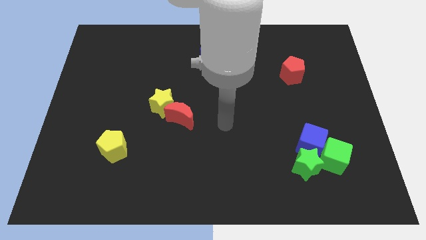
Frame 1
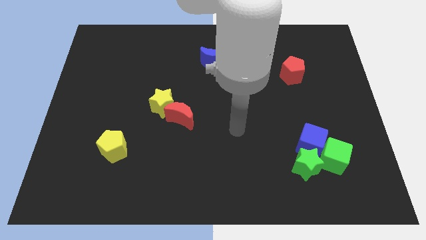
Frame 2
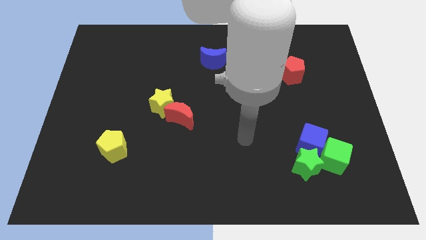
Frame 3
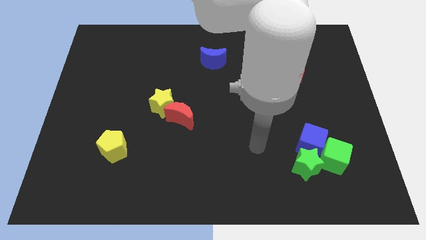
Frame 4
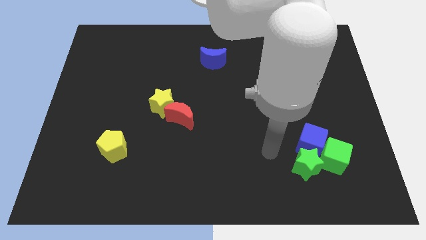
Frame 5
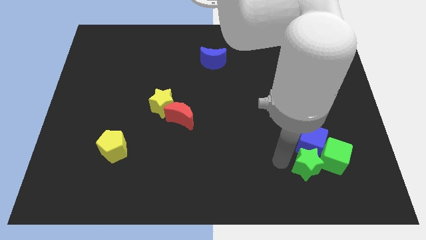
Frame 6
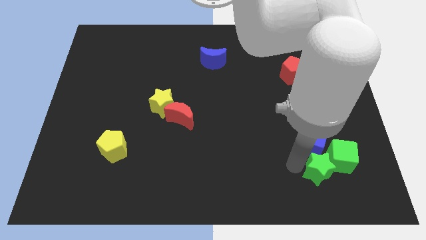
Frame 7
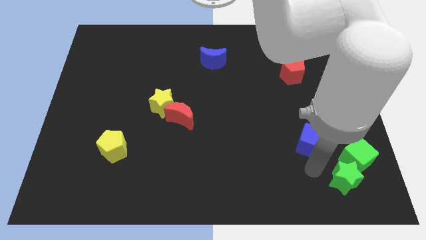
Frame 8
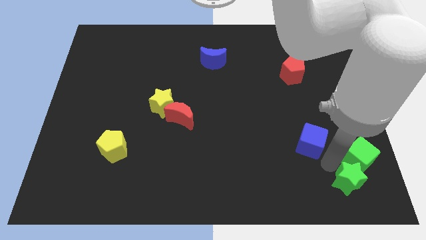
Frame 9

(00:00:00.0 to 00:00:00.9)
pull the blue cube apart from the green star and green cube

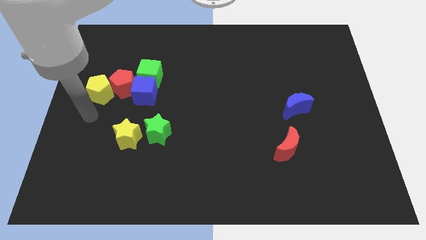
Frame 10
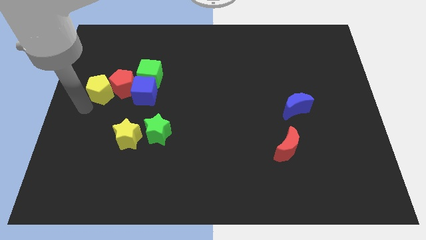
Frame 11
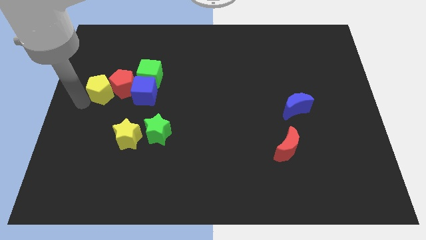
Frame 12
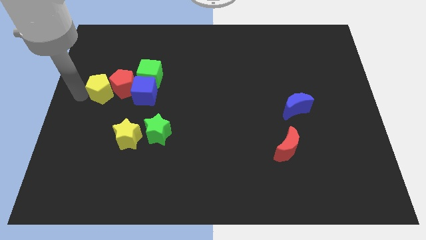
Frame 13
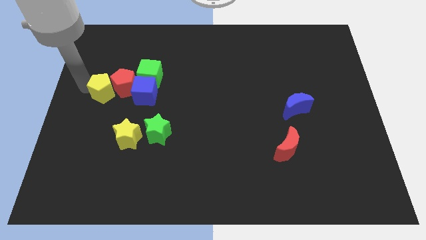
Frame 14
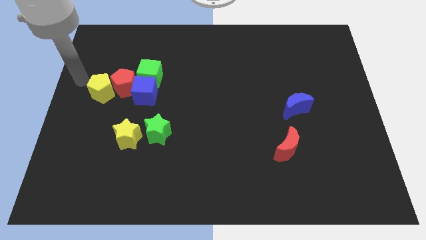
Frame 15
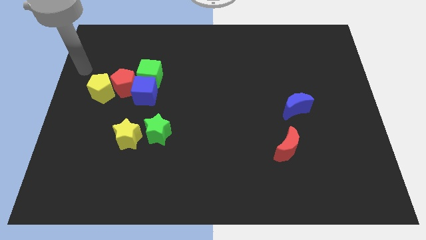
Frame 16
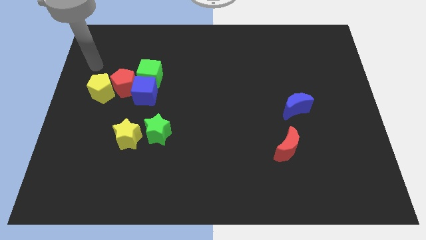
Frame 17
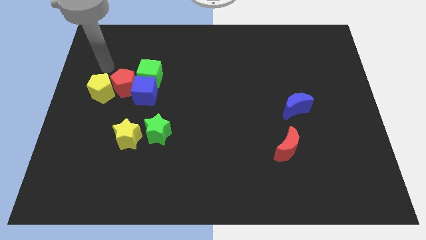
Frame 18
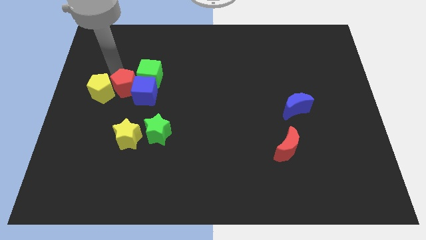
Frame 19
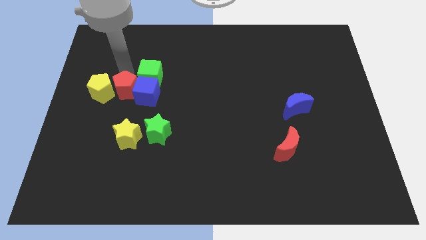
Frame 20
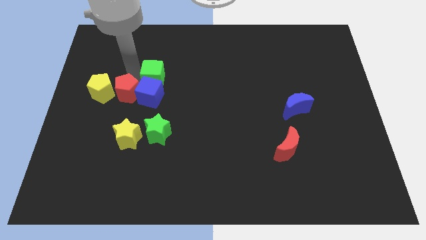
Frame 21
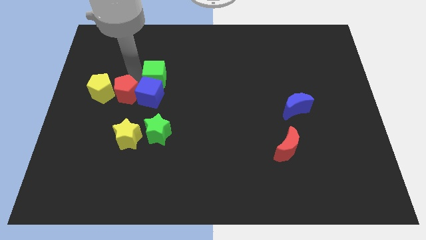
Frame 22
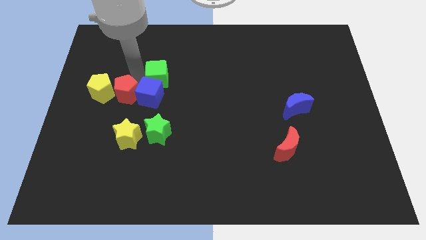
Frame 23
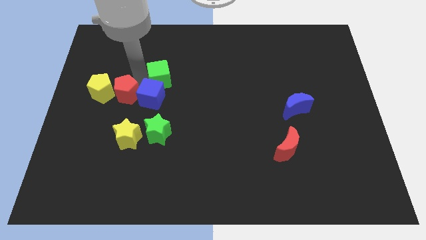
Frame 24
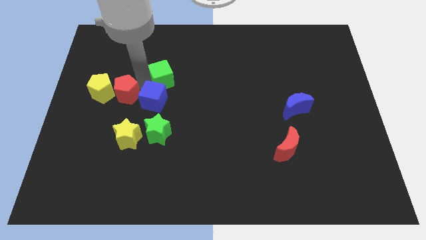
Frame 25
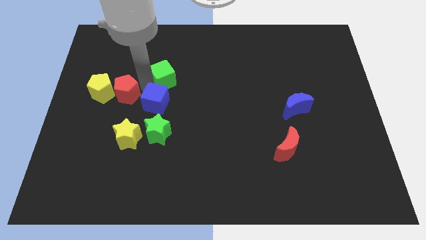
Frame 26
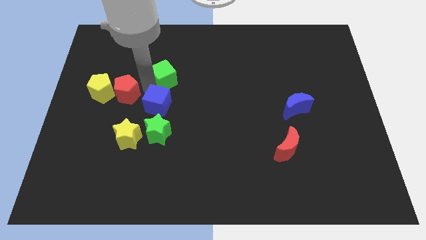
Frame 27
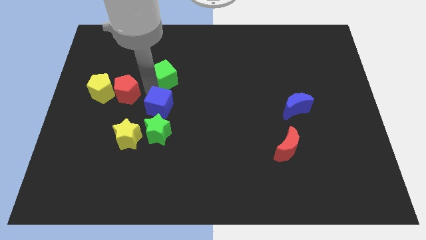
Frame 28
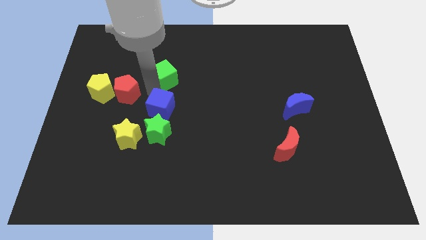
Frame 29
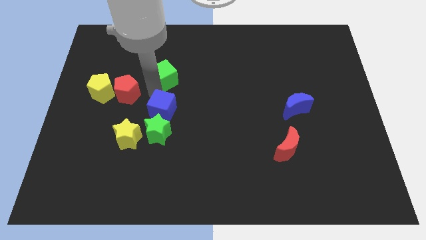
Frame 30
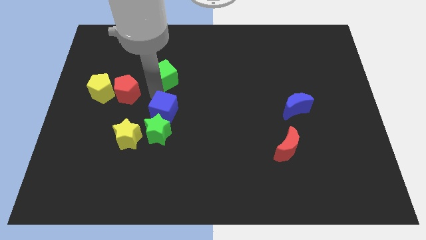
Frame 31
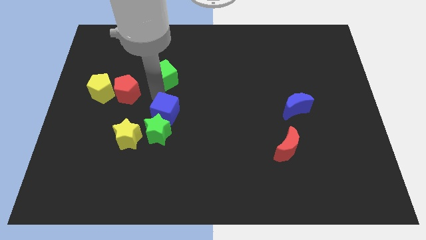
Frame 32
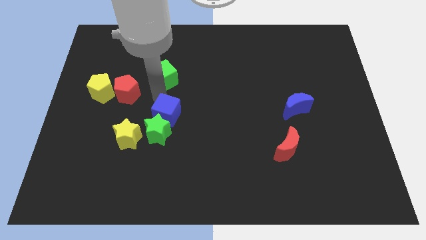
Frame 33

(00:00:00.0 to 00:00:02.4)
move the blue cube away from the green cube and red pentagon

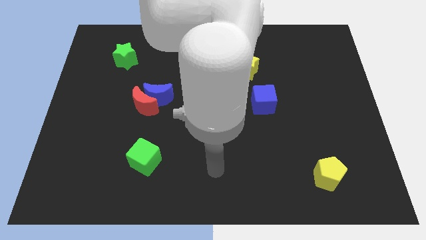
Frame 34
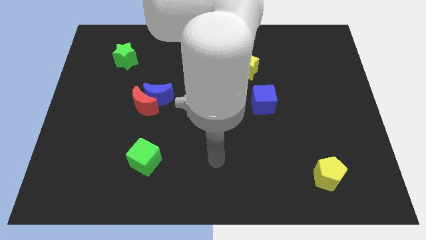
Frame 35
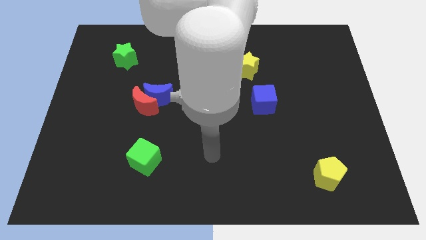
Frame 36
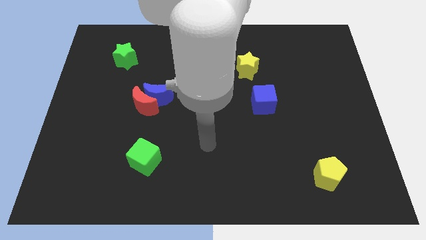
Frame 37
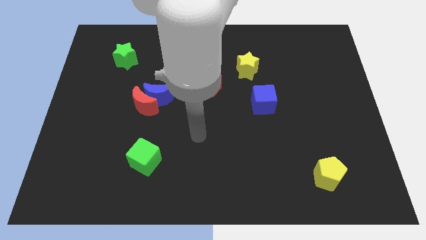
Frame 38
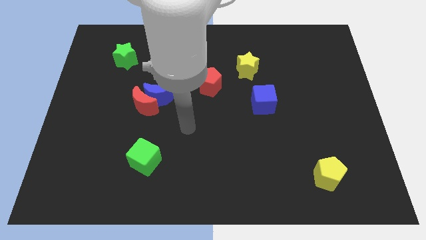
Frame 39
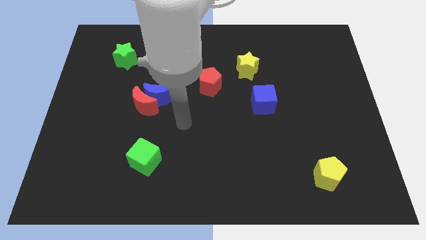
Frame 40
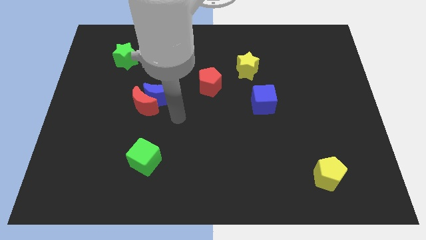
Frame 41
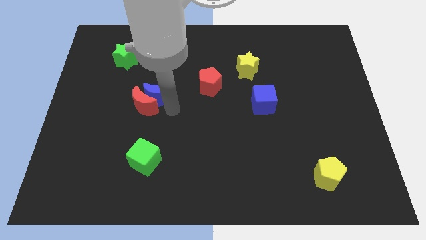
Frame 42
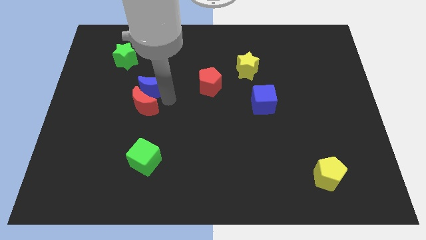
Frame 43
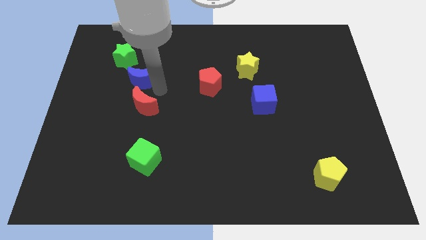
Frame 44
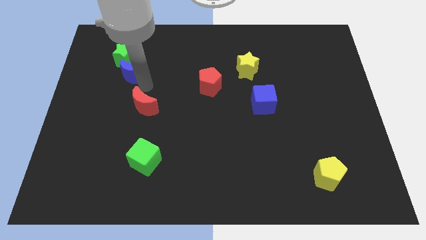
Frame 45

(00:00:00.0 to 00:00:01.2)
pull the red moon apart from the blue moon

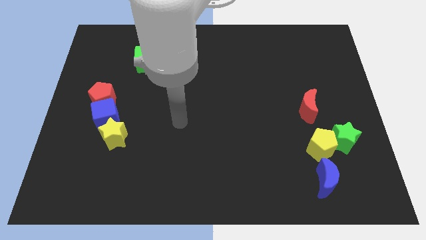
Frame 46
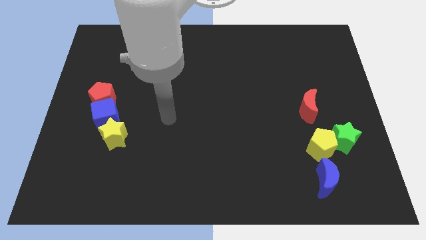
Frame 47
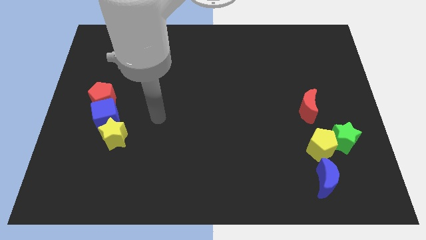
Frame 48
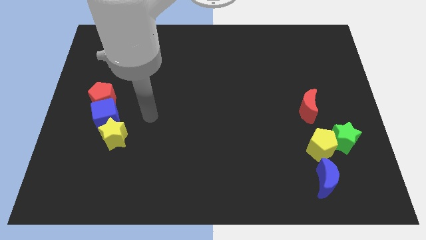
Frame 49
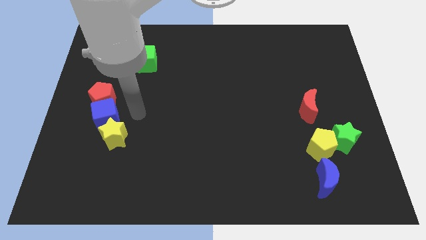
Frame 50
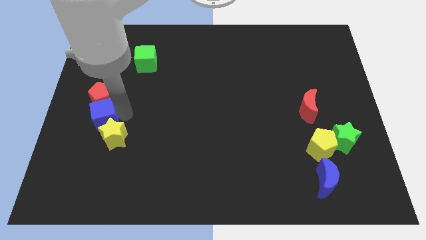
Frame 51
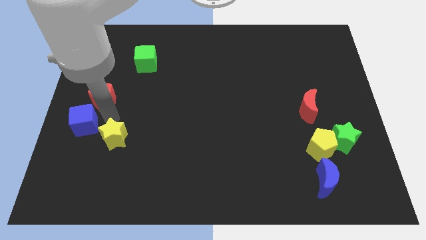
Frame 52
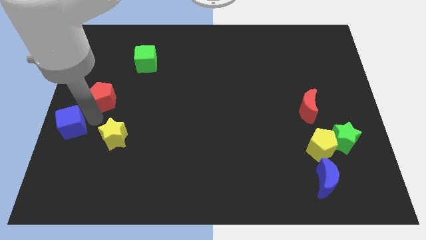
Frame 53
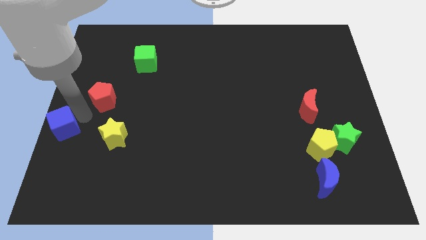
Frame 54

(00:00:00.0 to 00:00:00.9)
pull the red pentagon apart from the blue cube

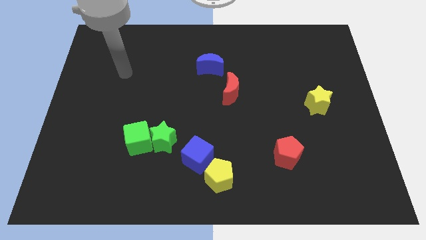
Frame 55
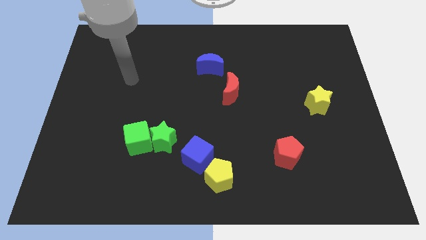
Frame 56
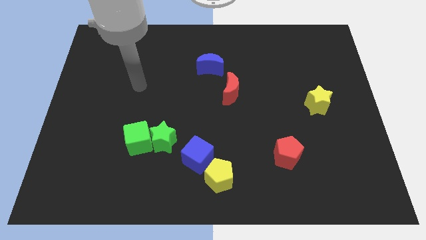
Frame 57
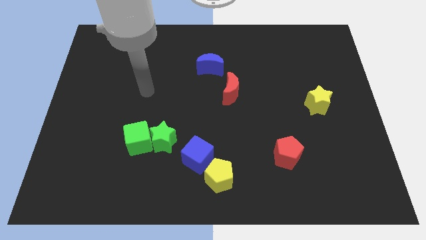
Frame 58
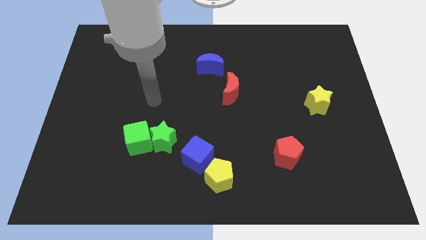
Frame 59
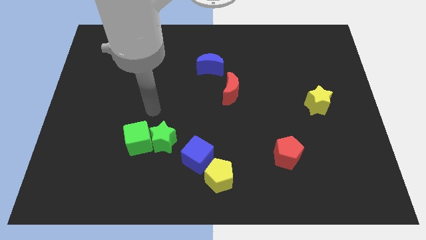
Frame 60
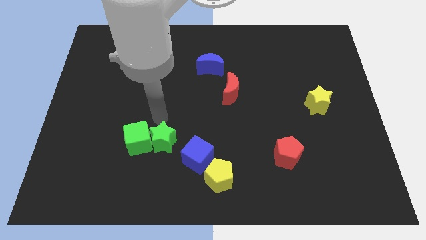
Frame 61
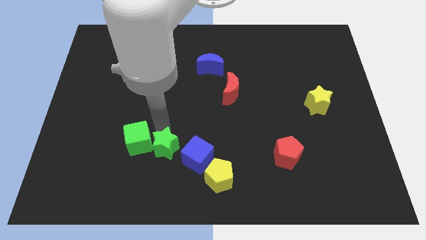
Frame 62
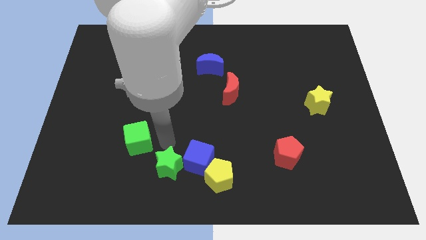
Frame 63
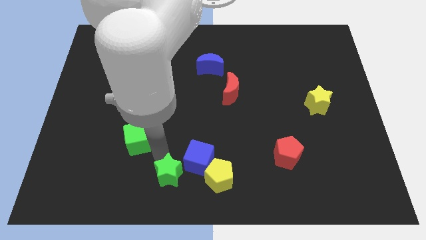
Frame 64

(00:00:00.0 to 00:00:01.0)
move the green cube away from the green star

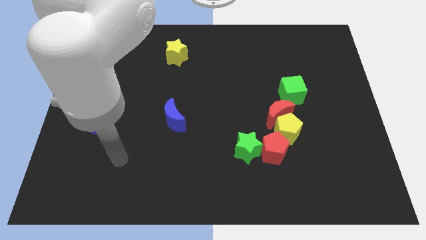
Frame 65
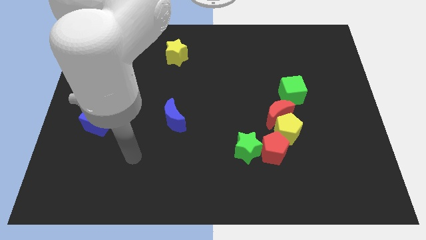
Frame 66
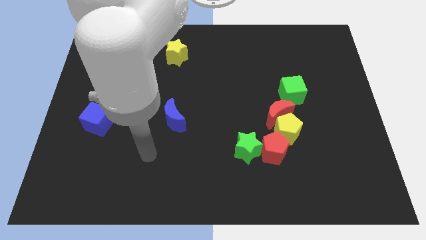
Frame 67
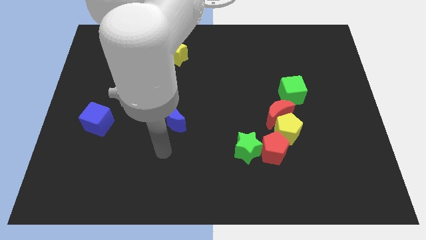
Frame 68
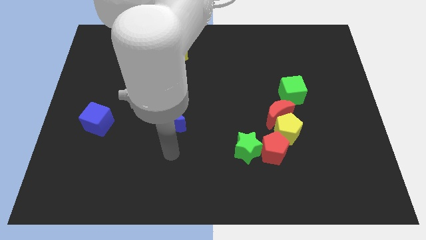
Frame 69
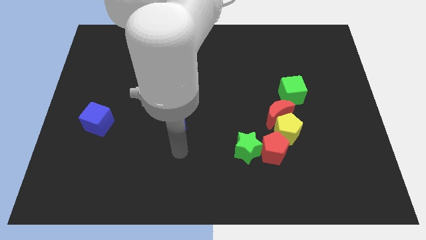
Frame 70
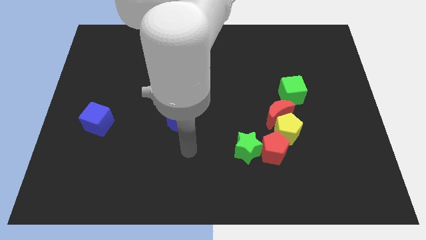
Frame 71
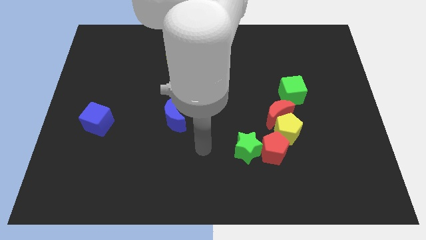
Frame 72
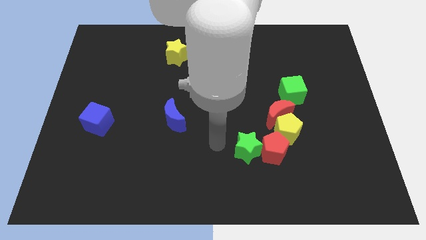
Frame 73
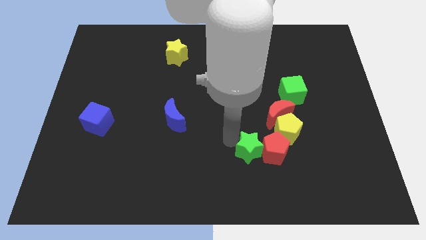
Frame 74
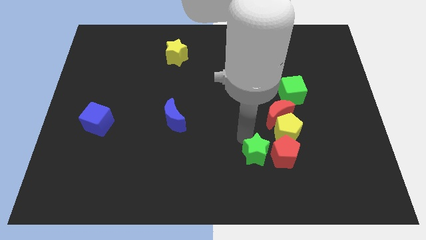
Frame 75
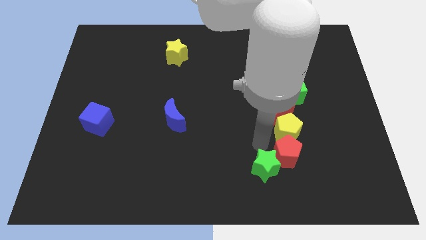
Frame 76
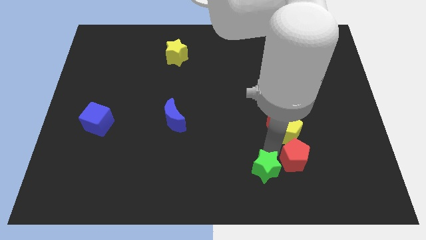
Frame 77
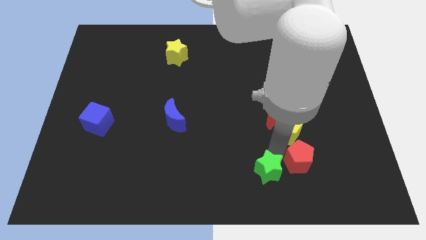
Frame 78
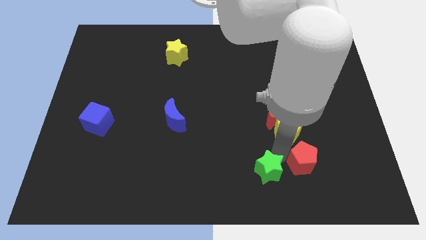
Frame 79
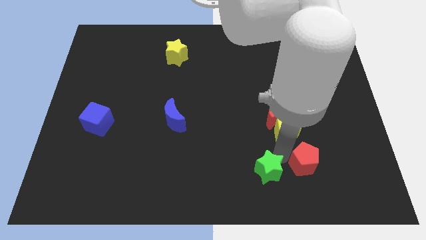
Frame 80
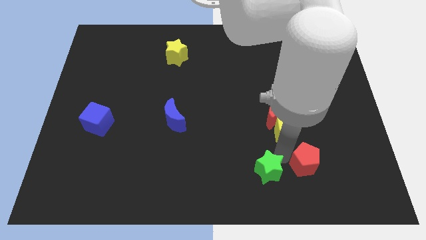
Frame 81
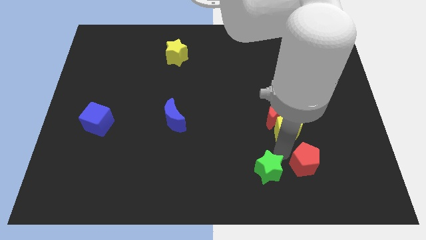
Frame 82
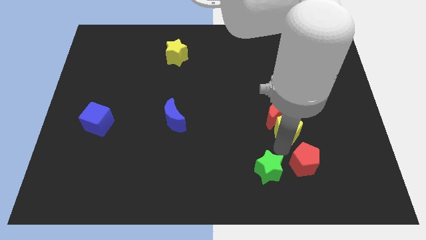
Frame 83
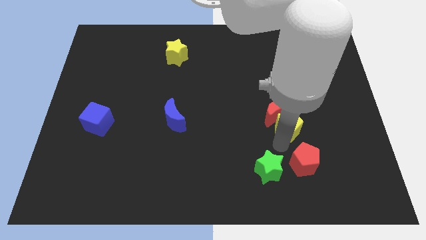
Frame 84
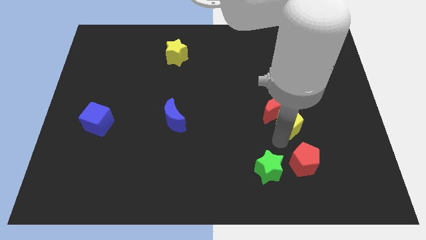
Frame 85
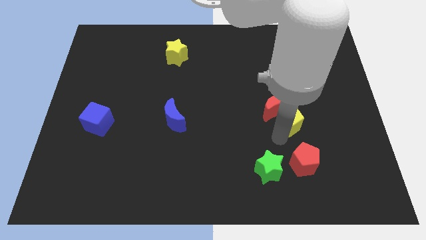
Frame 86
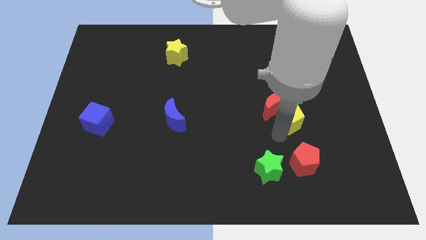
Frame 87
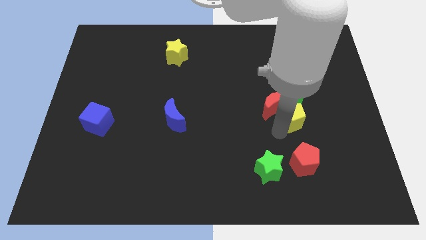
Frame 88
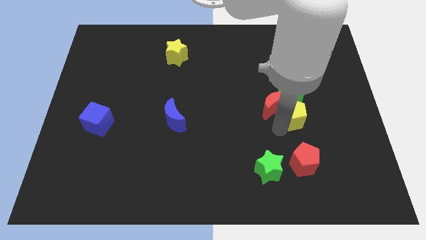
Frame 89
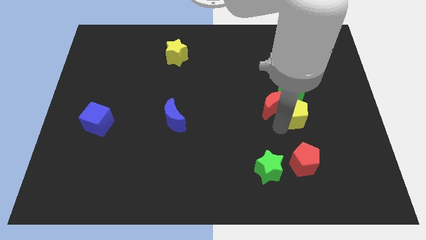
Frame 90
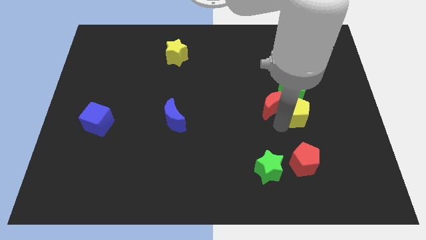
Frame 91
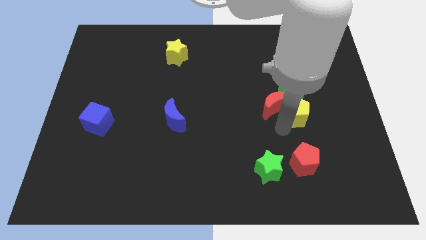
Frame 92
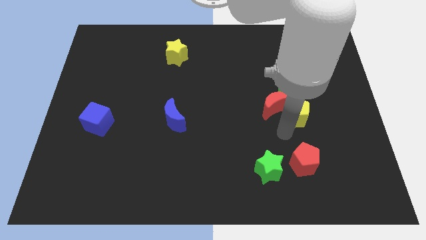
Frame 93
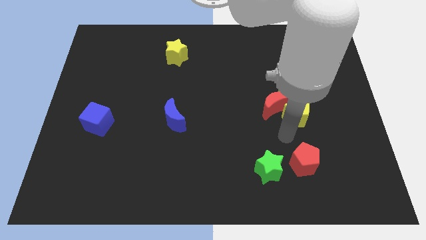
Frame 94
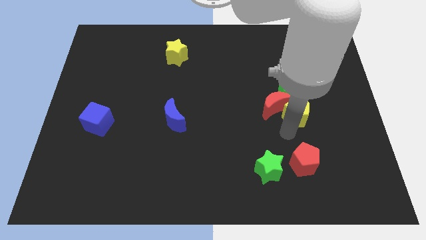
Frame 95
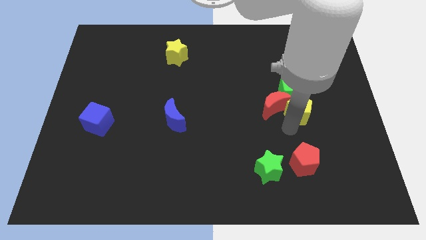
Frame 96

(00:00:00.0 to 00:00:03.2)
separate the yellow pentagon from the red moon, red pentagon, and green star
